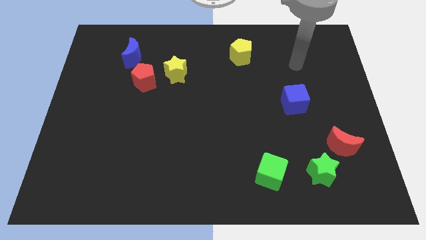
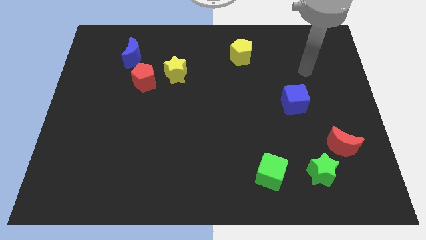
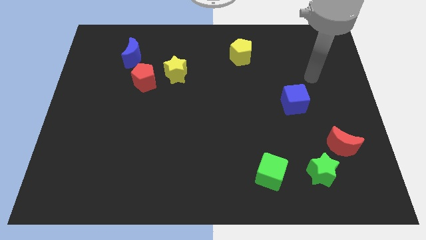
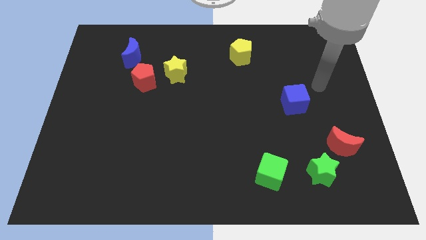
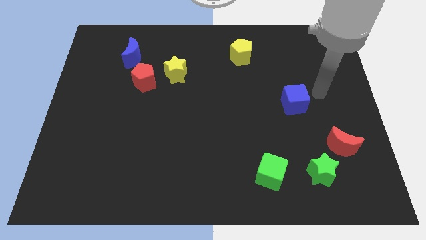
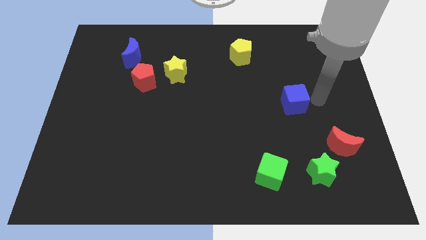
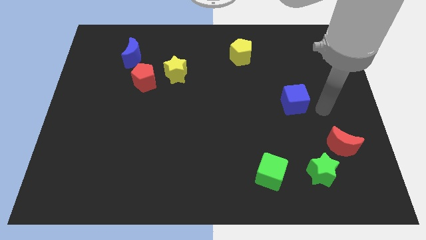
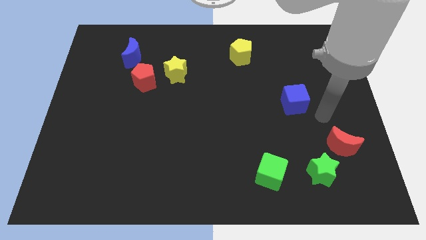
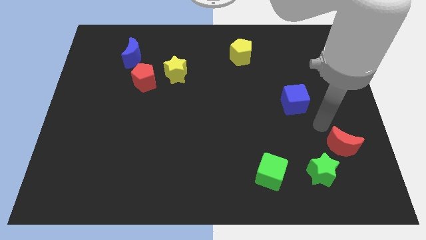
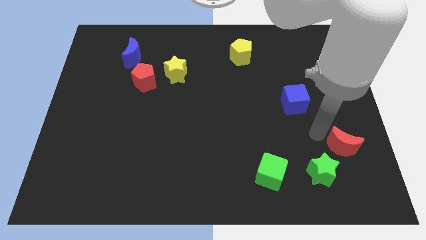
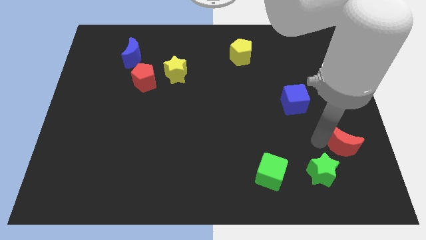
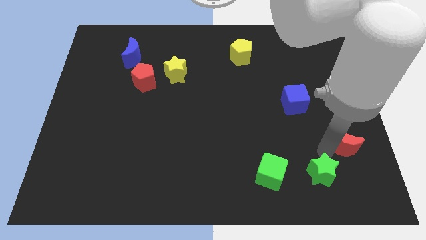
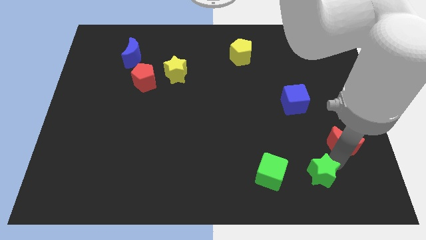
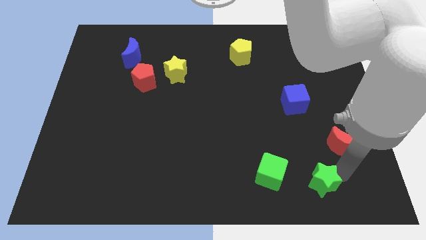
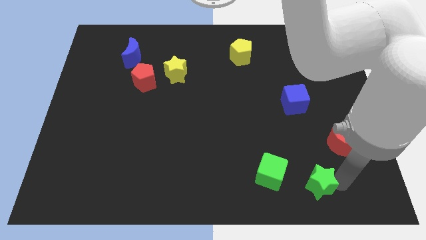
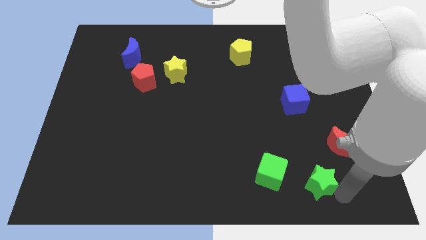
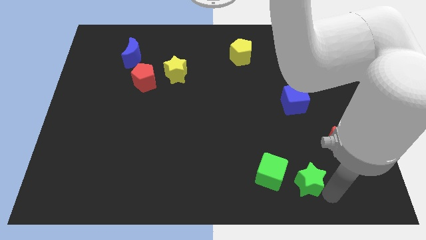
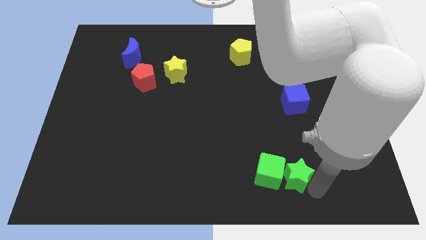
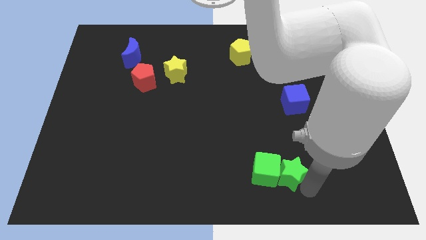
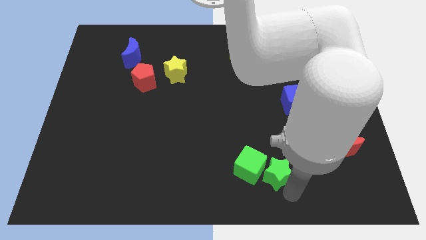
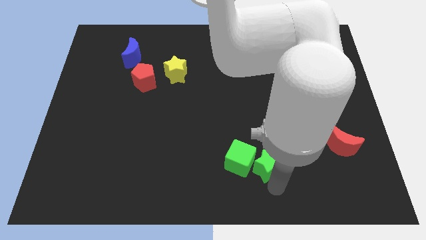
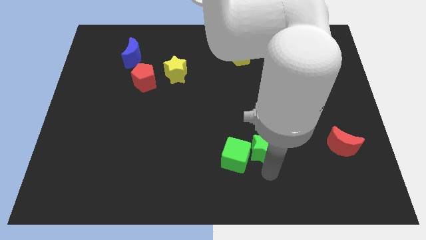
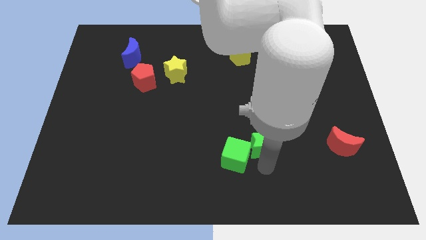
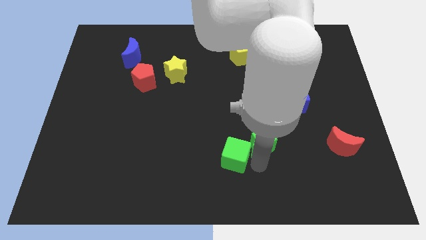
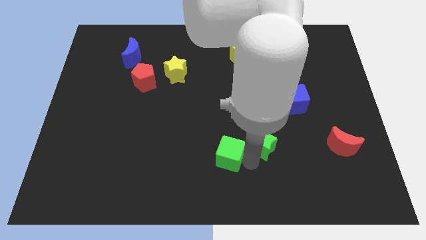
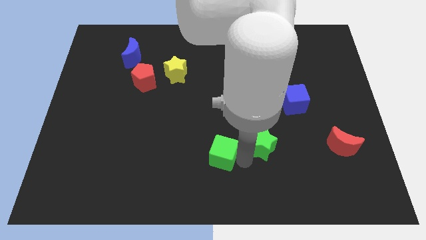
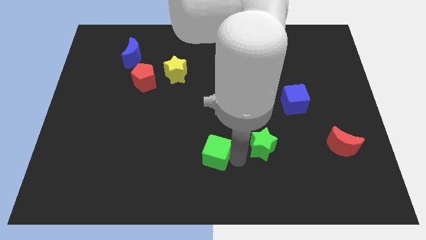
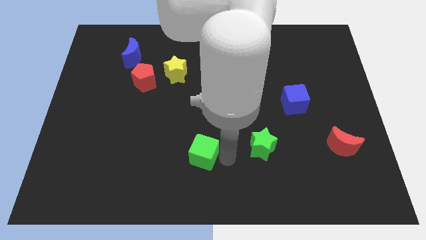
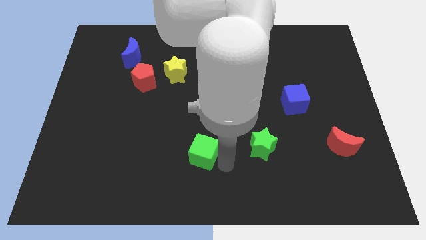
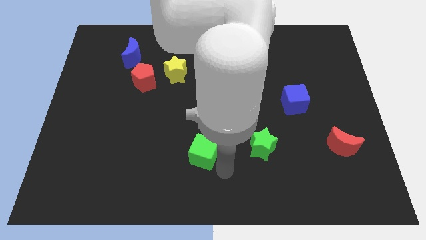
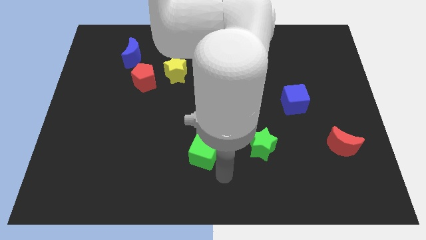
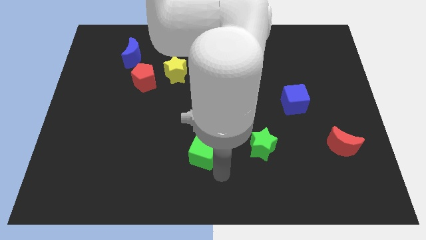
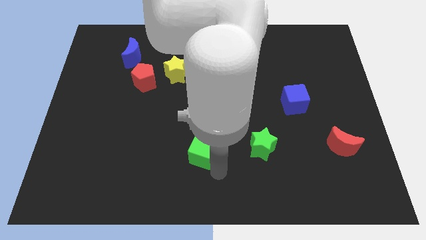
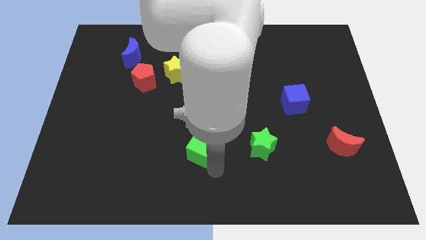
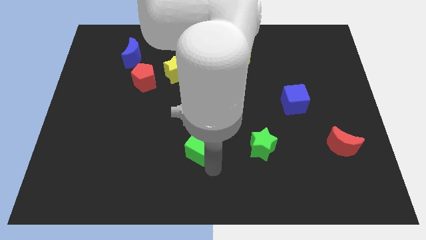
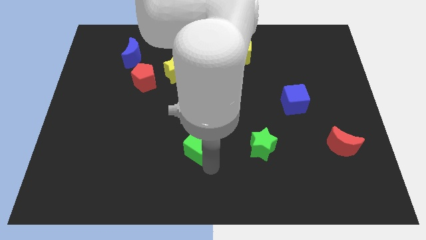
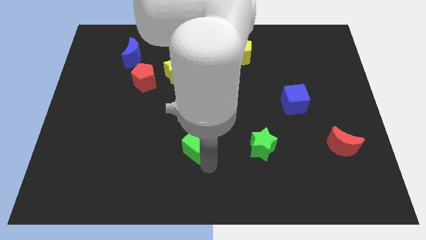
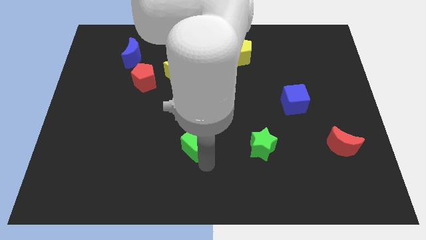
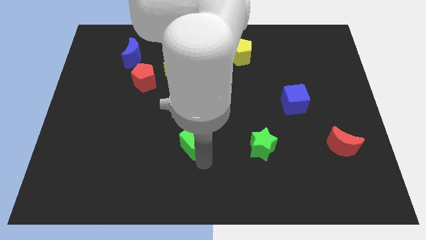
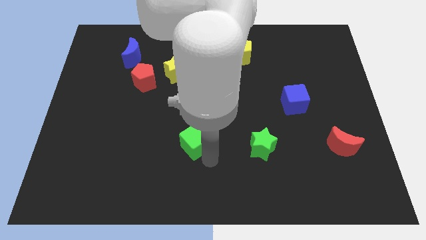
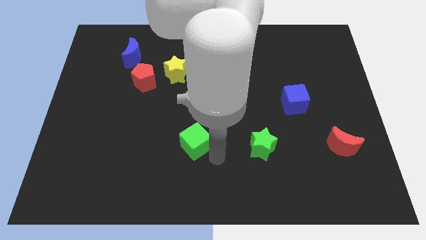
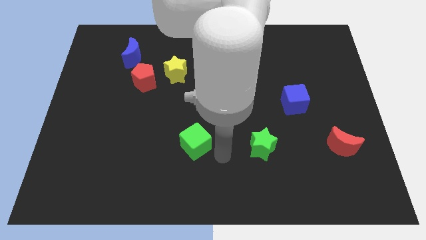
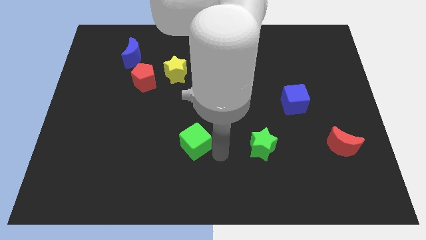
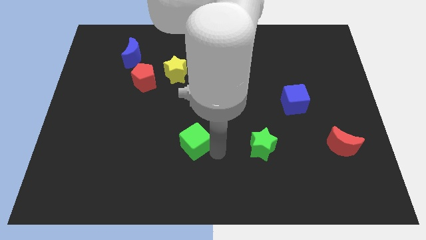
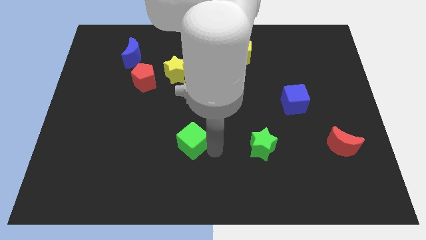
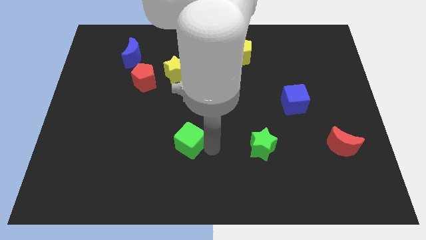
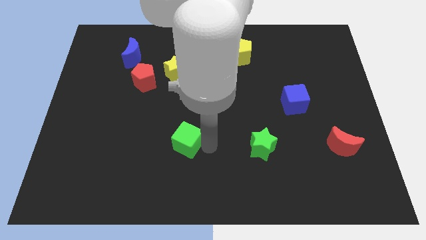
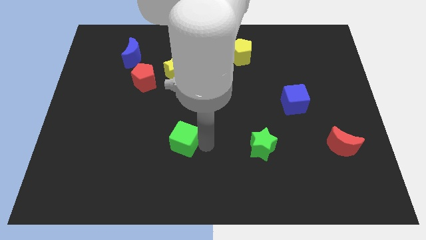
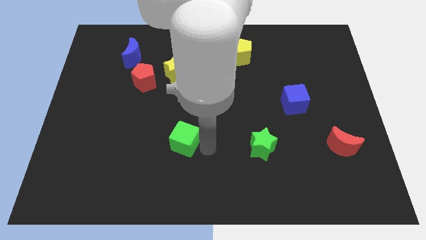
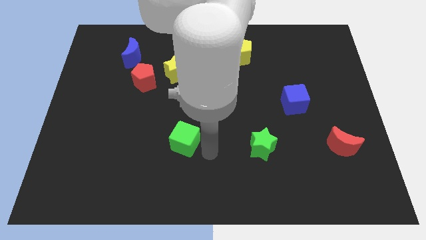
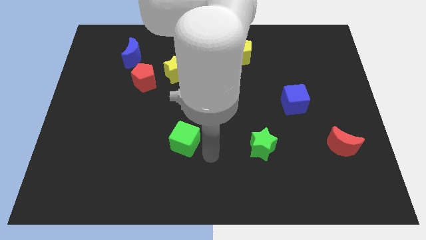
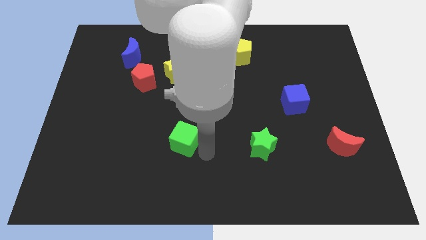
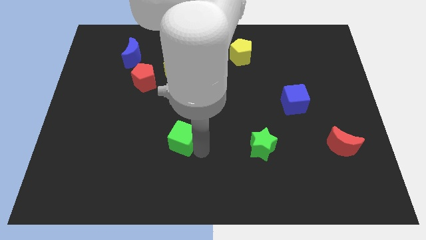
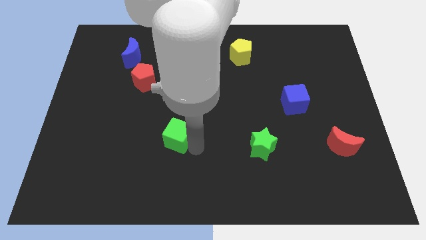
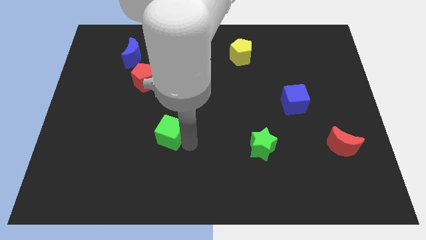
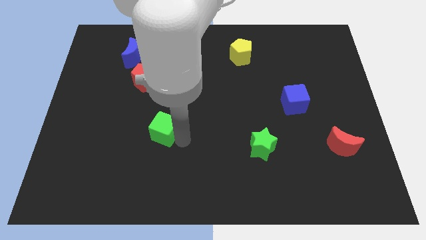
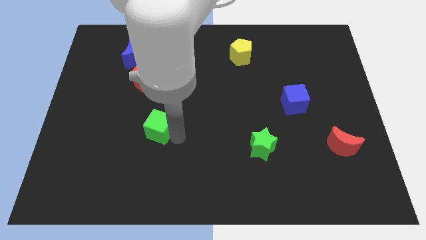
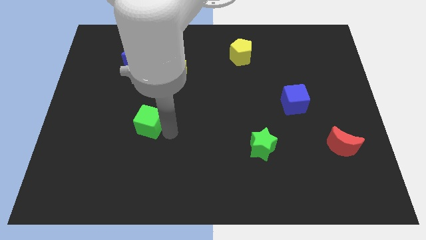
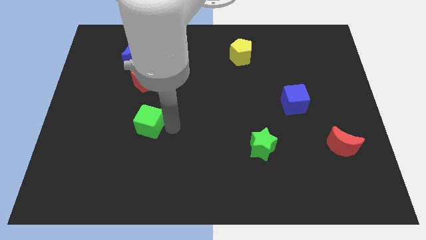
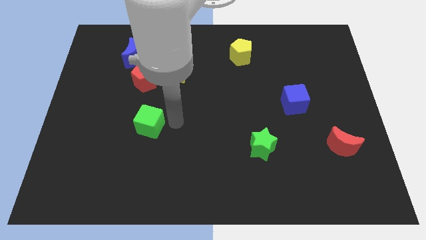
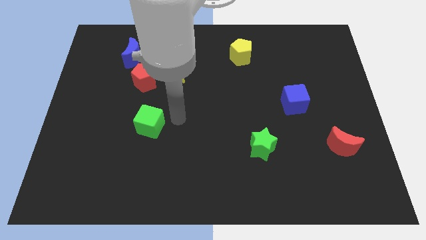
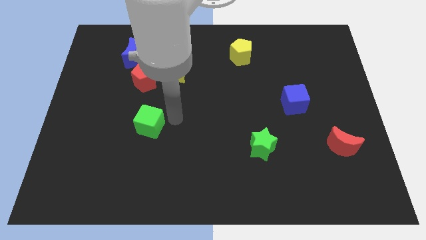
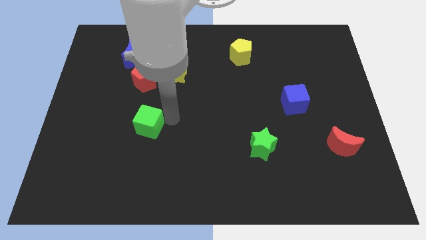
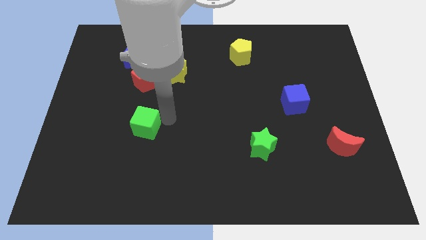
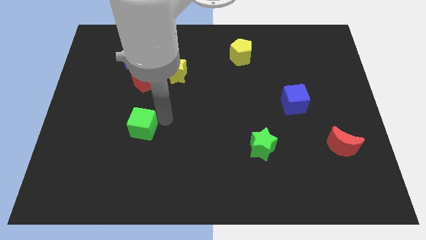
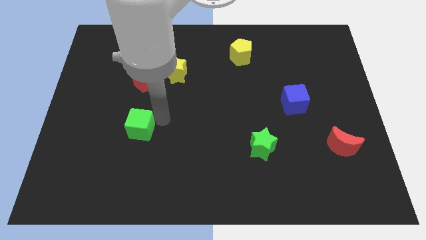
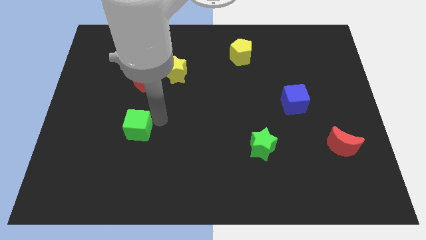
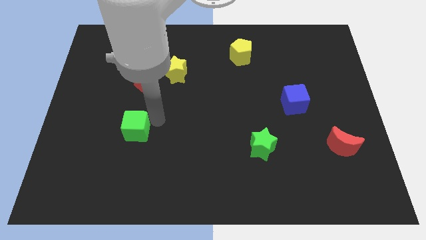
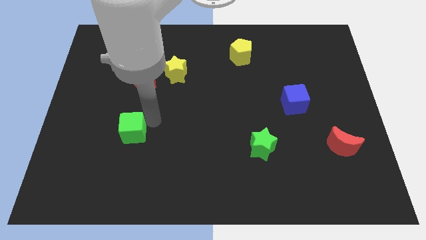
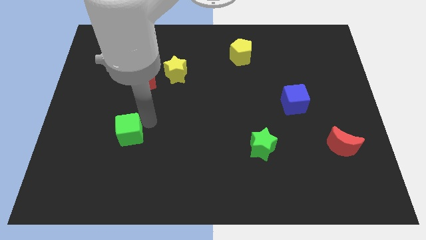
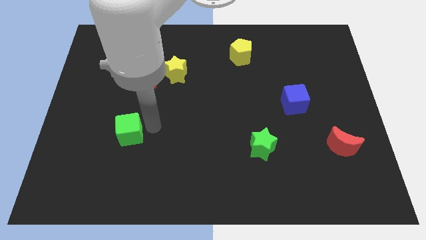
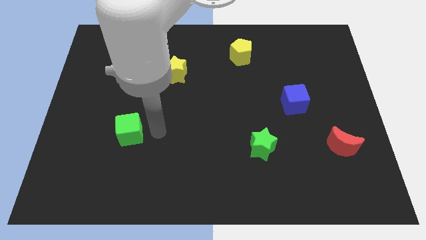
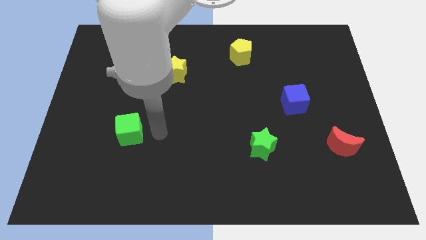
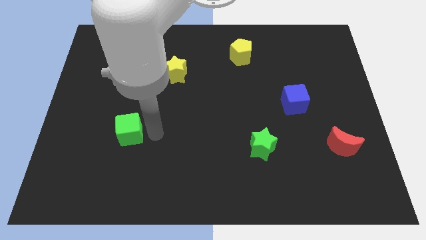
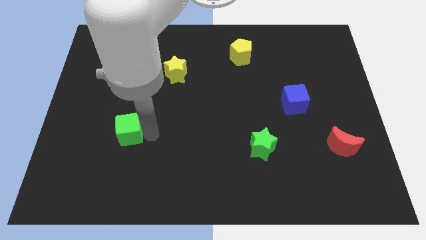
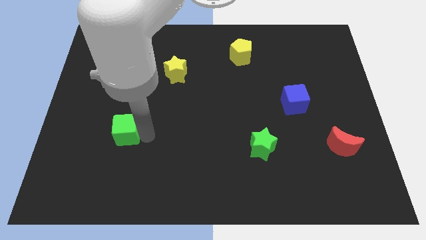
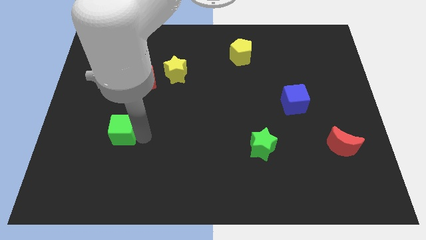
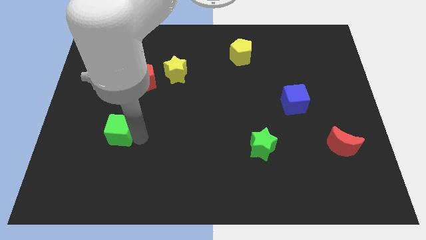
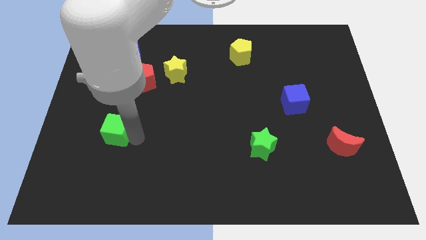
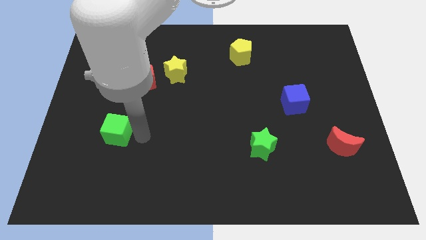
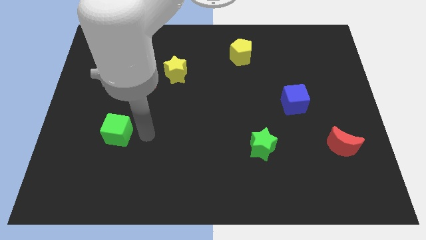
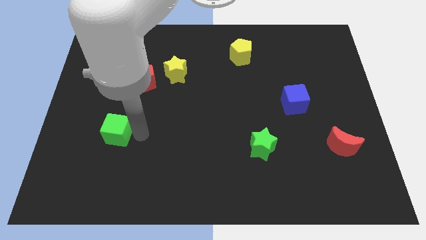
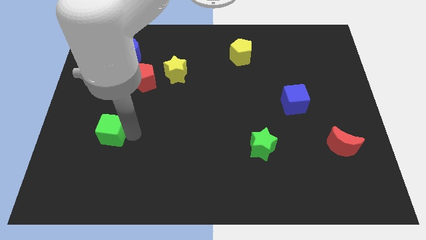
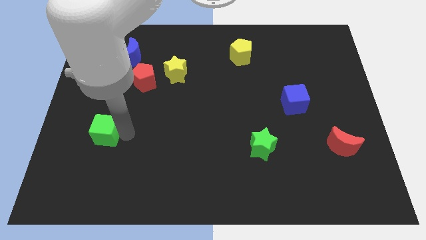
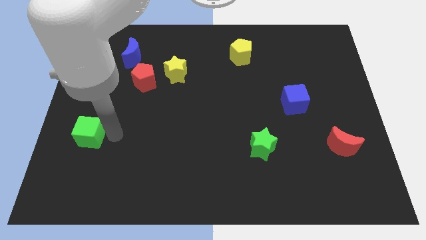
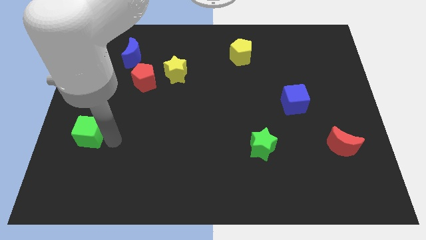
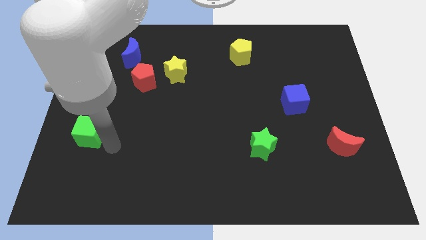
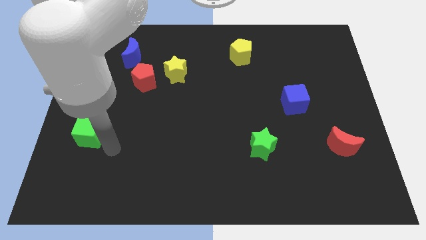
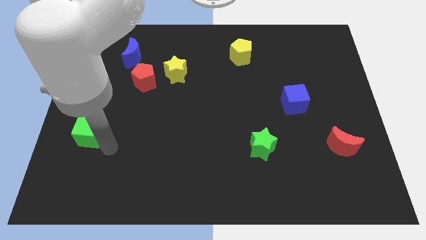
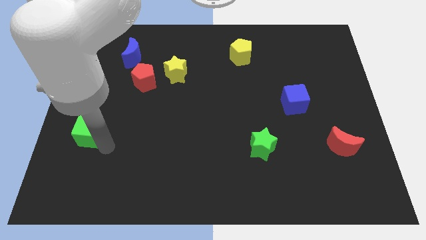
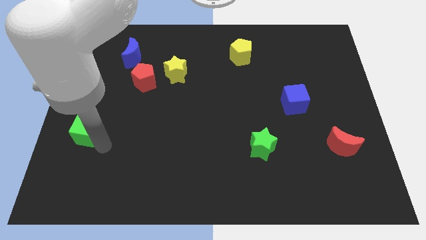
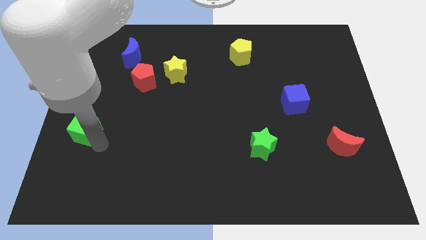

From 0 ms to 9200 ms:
push the green cube to the left side
